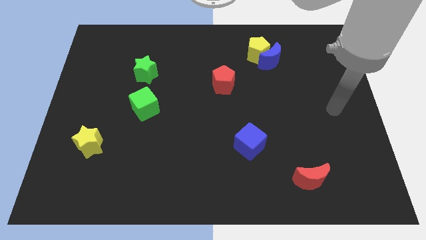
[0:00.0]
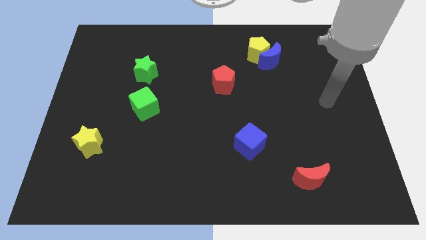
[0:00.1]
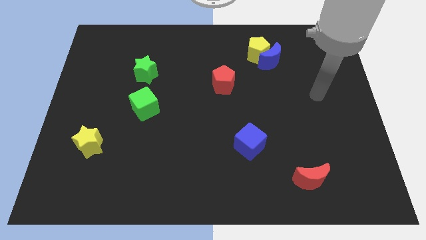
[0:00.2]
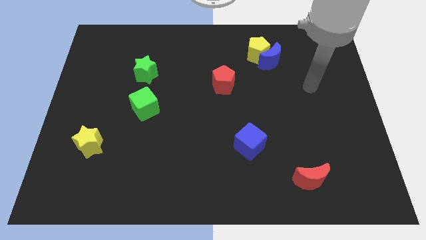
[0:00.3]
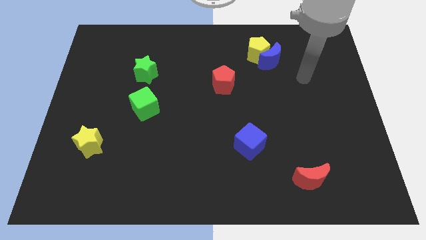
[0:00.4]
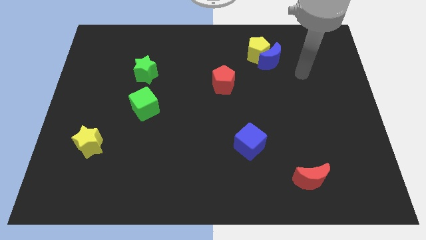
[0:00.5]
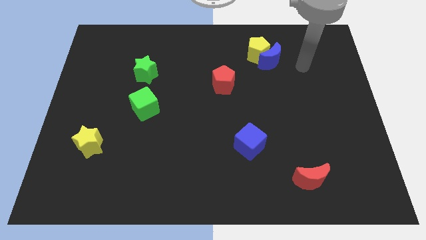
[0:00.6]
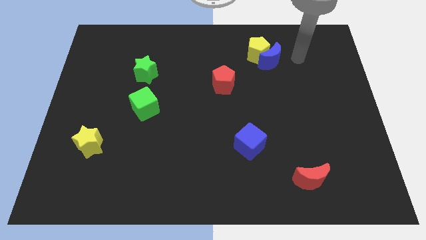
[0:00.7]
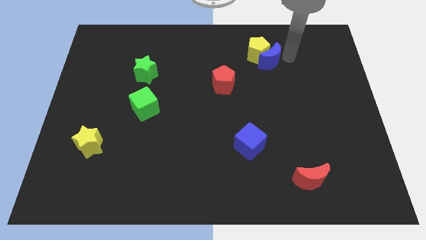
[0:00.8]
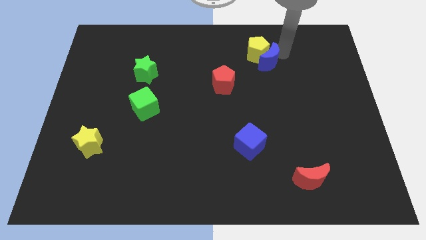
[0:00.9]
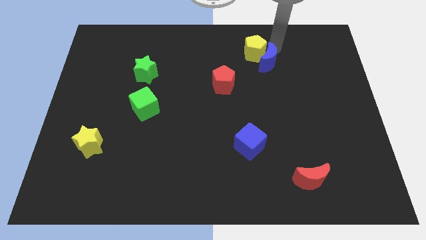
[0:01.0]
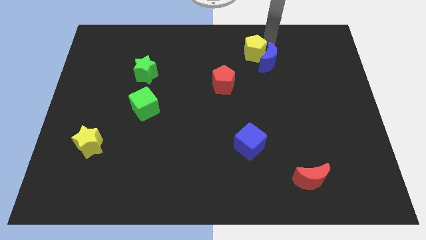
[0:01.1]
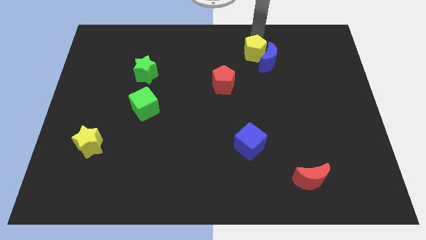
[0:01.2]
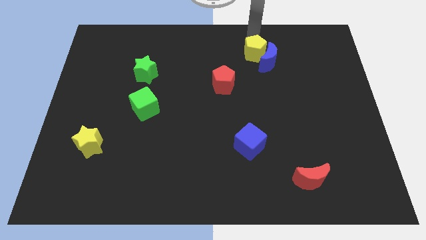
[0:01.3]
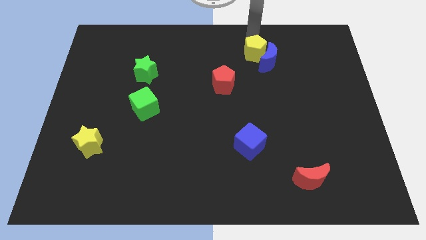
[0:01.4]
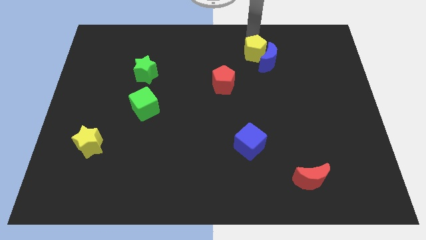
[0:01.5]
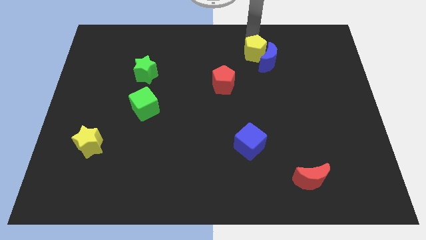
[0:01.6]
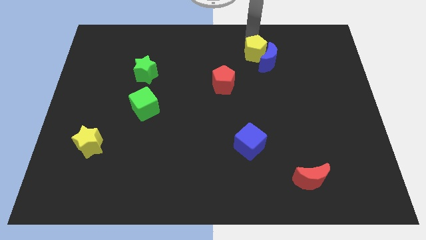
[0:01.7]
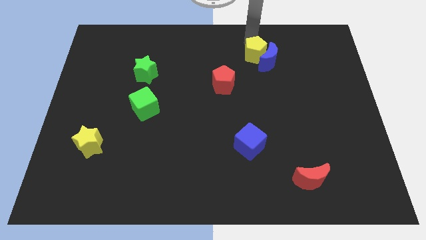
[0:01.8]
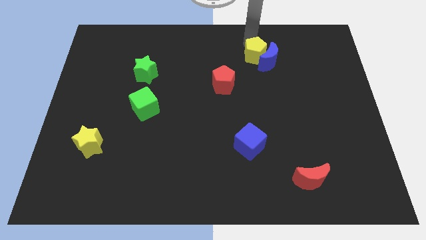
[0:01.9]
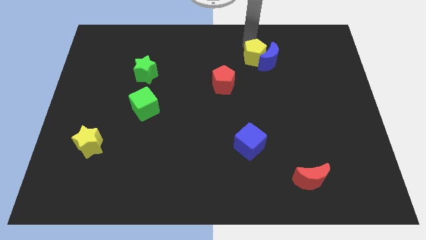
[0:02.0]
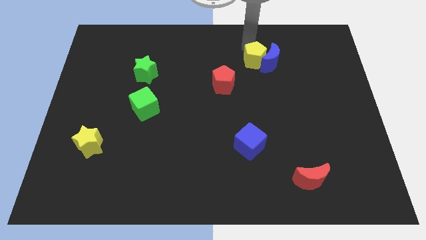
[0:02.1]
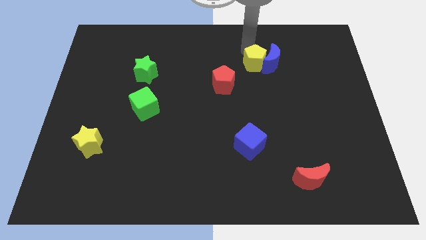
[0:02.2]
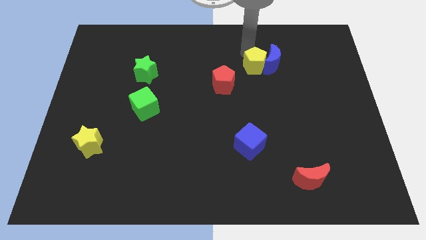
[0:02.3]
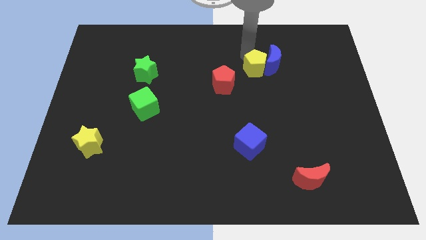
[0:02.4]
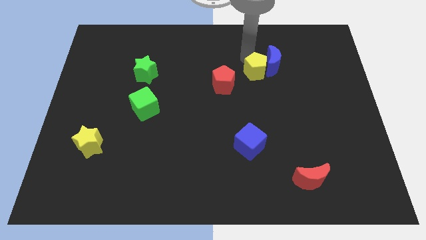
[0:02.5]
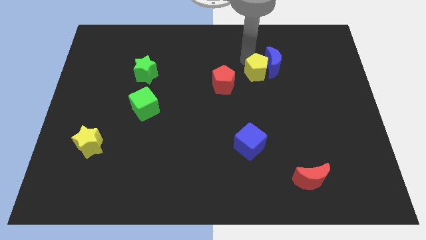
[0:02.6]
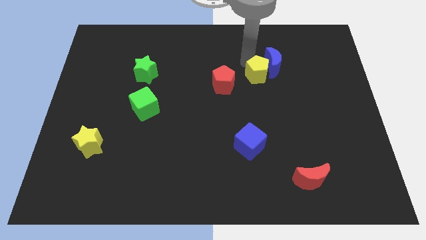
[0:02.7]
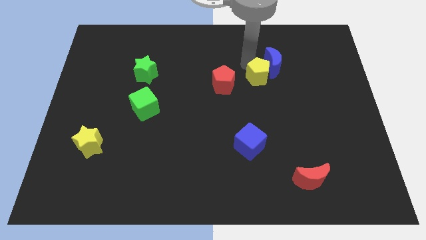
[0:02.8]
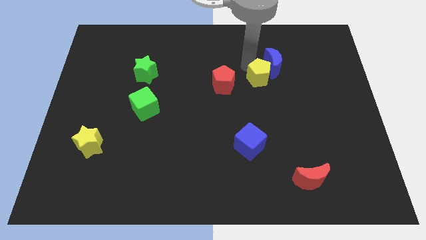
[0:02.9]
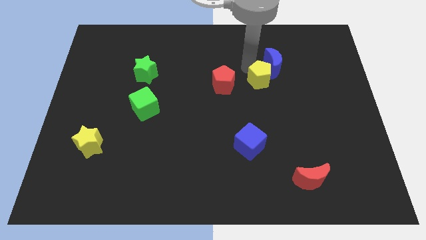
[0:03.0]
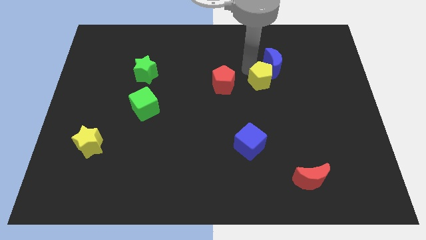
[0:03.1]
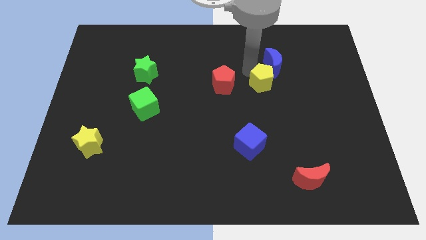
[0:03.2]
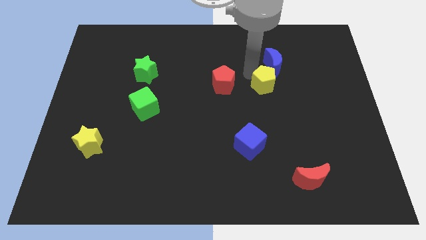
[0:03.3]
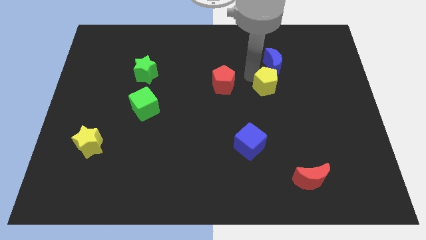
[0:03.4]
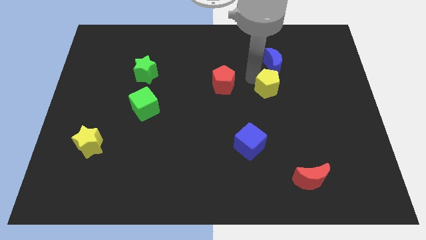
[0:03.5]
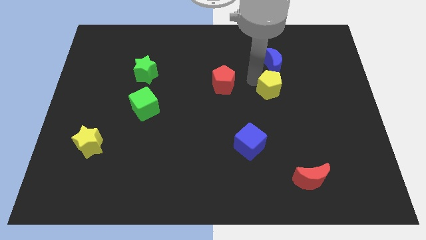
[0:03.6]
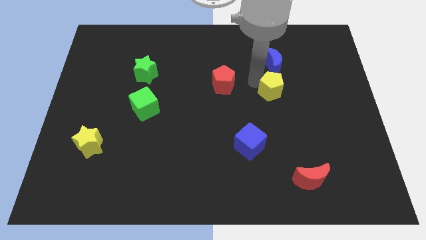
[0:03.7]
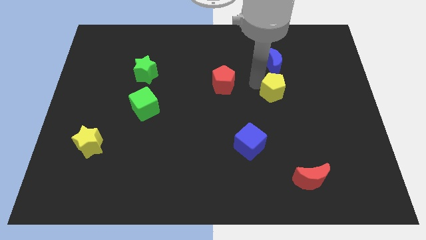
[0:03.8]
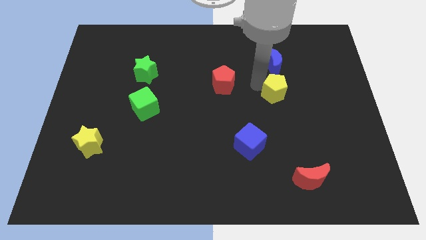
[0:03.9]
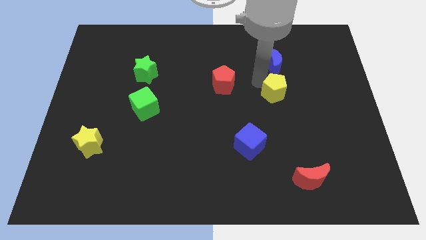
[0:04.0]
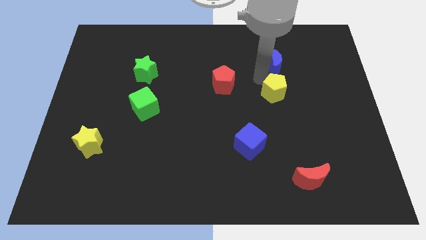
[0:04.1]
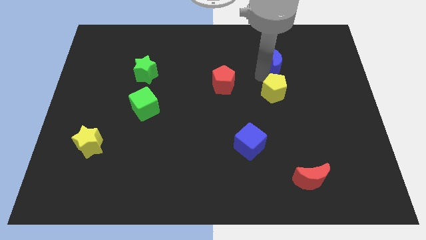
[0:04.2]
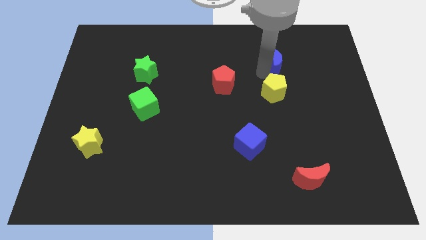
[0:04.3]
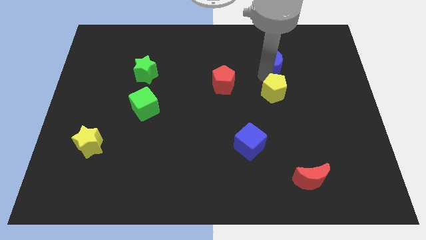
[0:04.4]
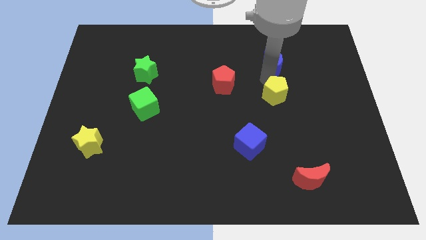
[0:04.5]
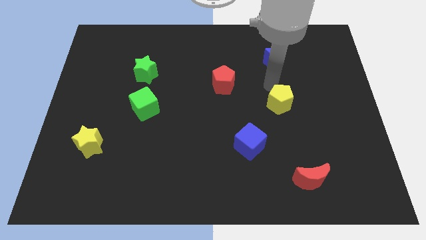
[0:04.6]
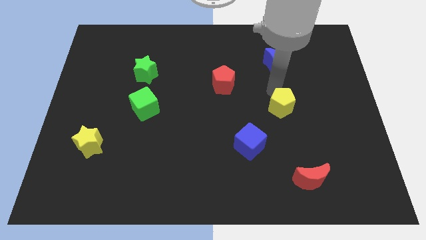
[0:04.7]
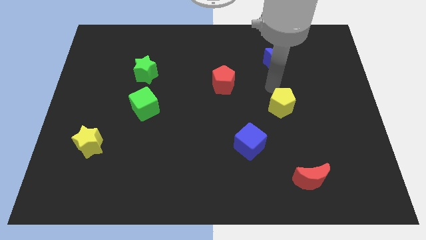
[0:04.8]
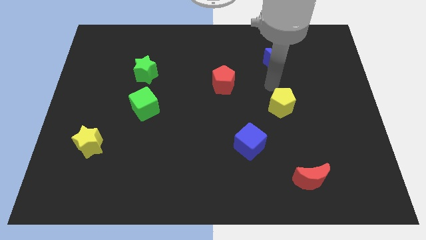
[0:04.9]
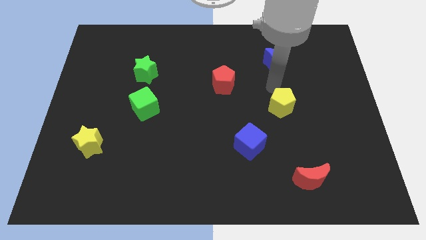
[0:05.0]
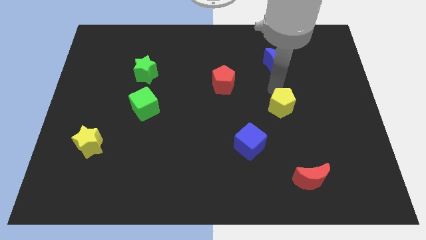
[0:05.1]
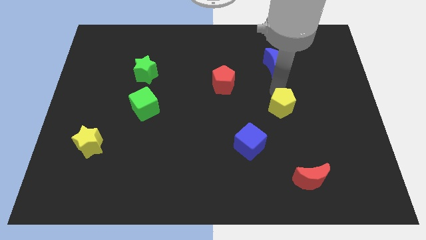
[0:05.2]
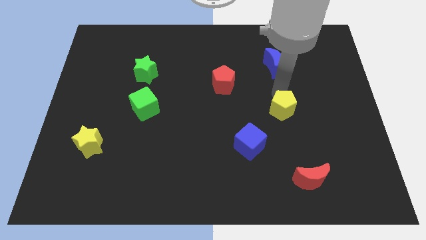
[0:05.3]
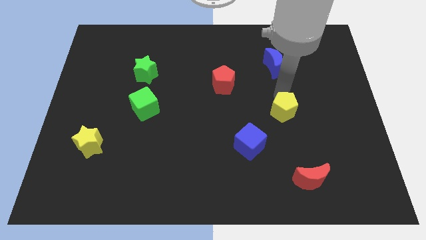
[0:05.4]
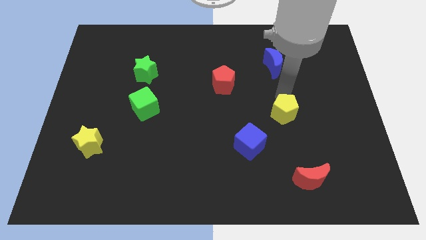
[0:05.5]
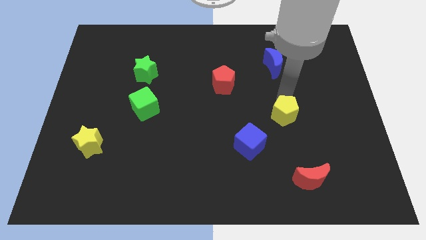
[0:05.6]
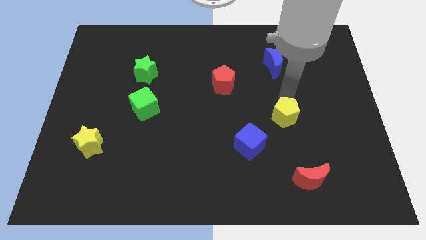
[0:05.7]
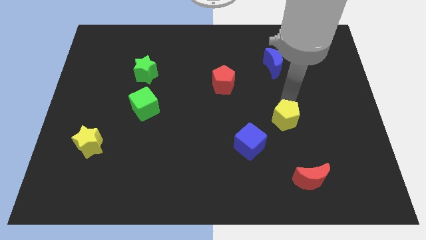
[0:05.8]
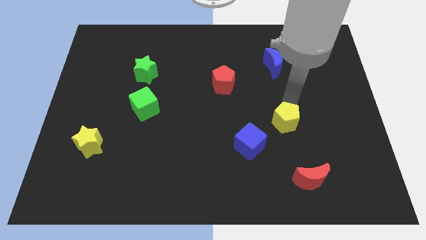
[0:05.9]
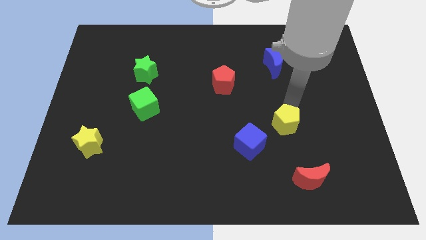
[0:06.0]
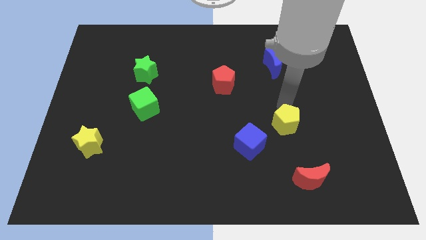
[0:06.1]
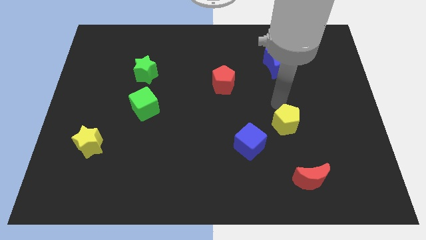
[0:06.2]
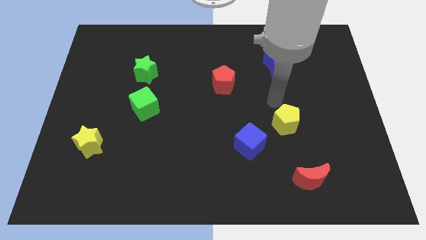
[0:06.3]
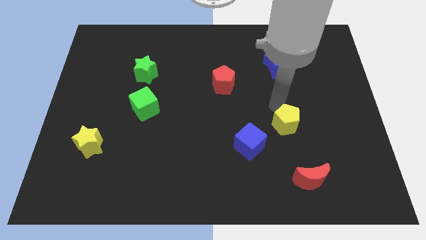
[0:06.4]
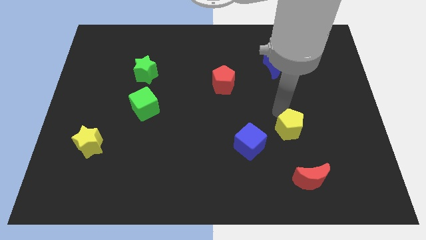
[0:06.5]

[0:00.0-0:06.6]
put the yellow pentagon to the right side of the blue cube
